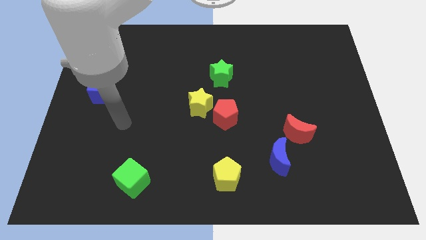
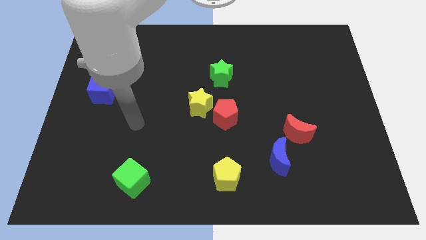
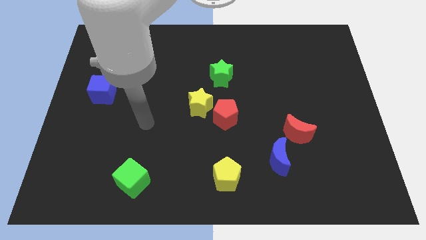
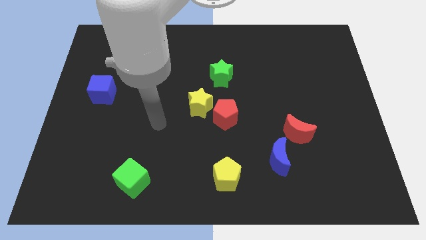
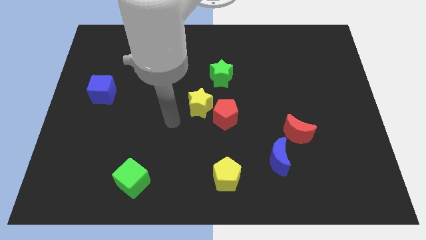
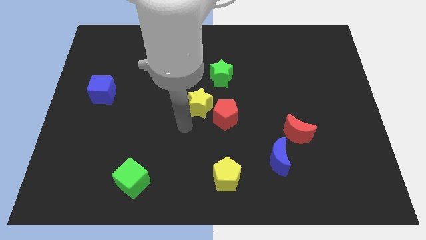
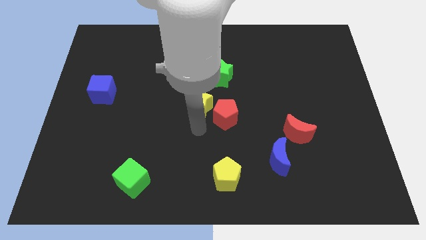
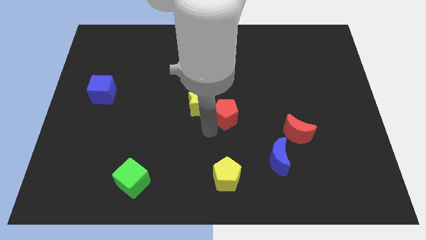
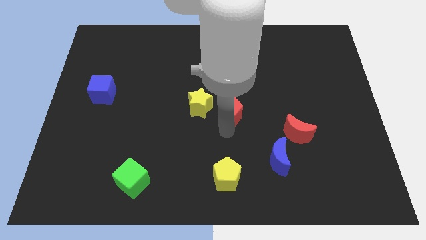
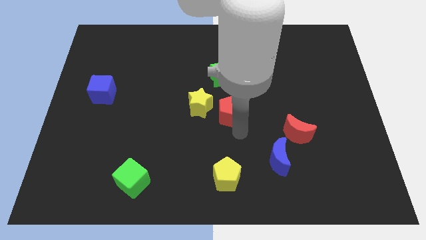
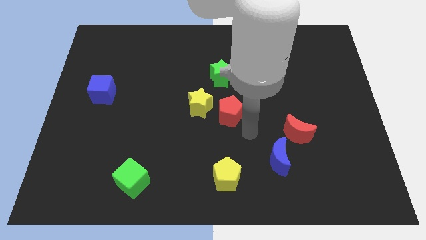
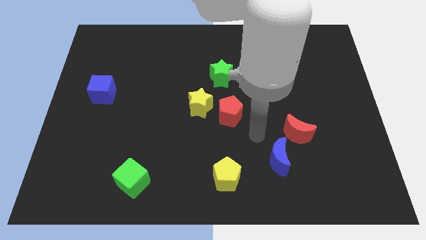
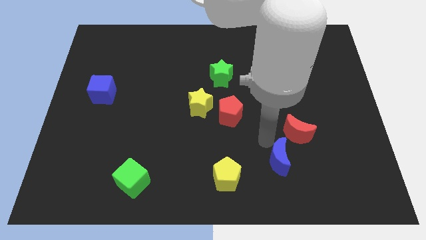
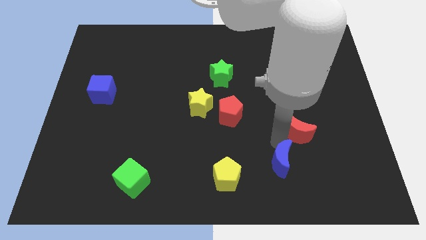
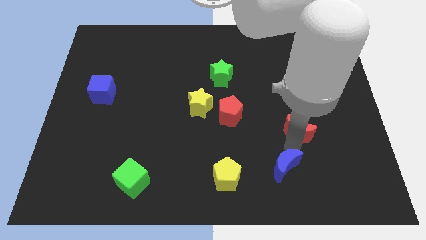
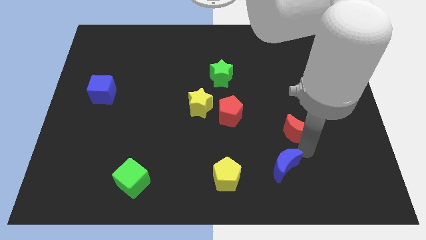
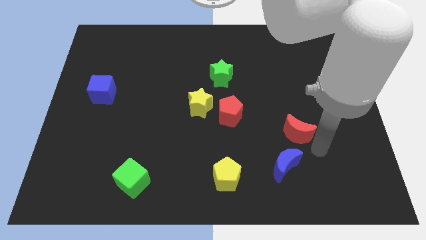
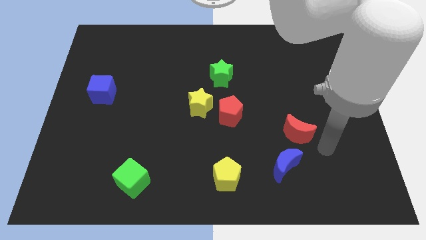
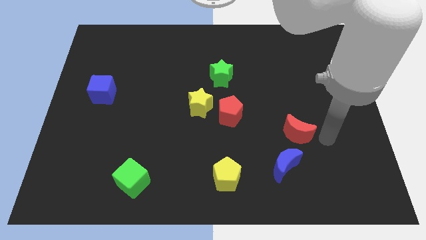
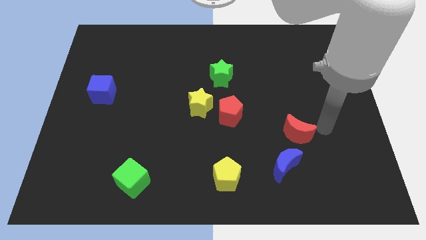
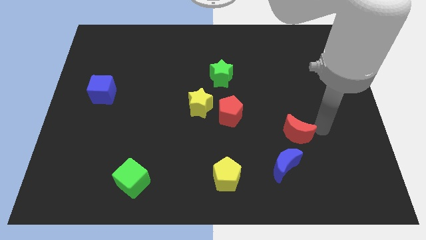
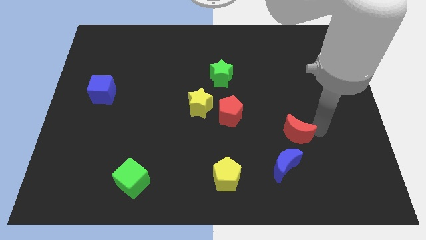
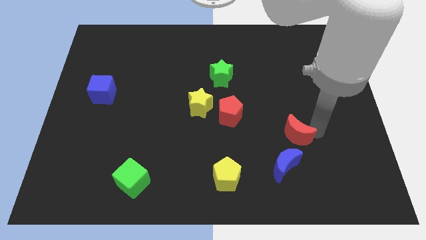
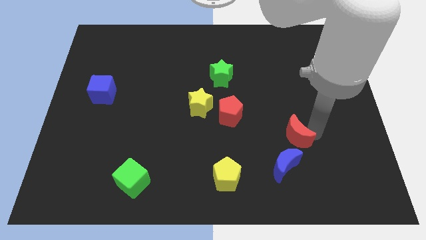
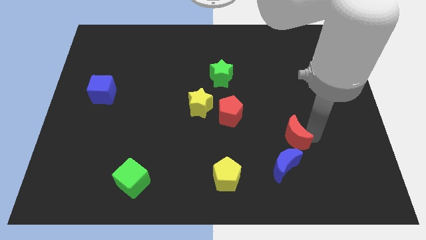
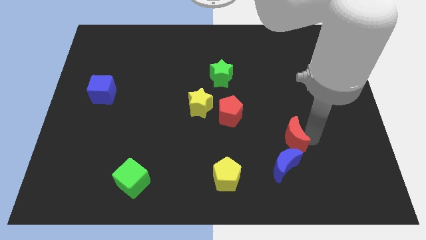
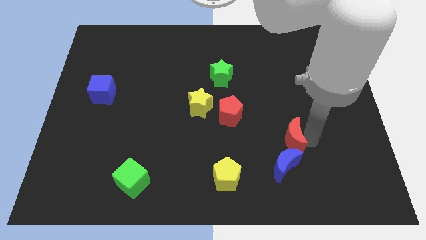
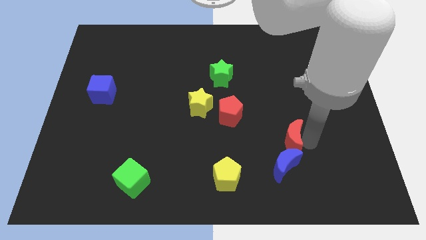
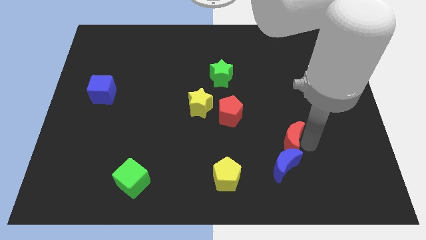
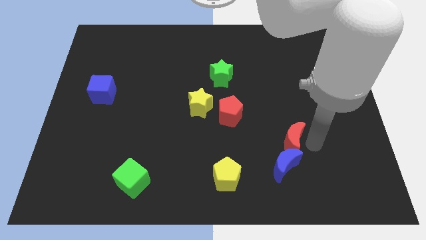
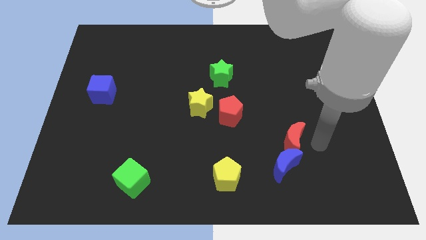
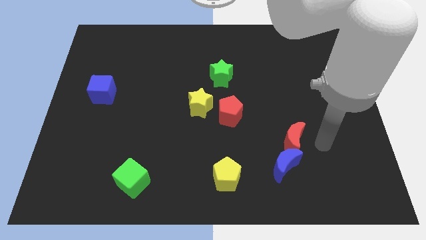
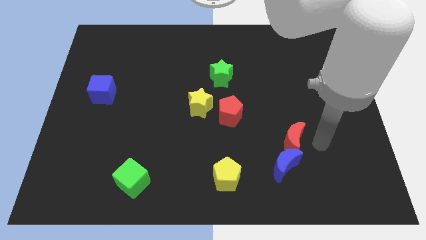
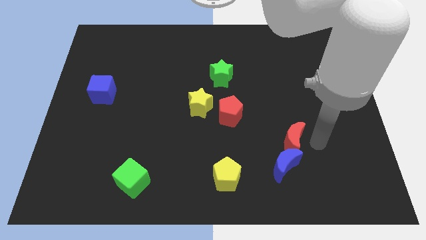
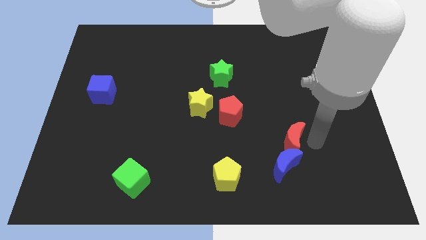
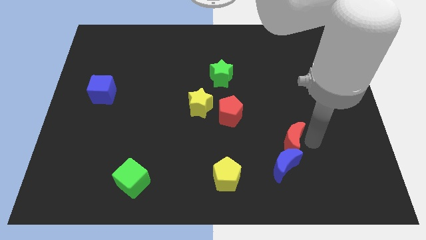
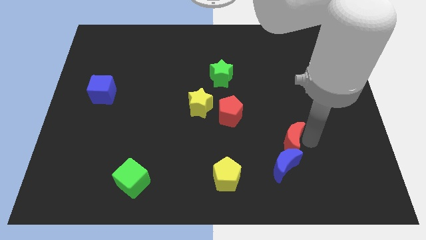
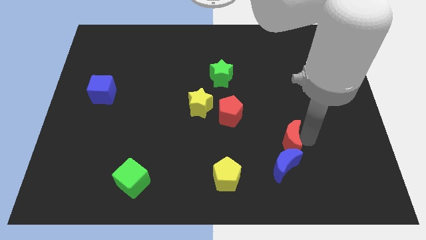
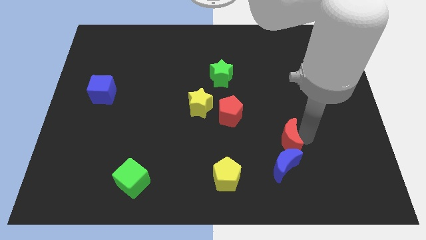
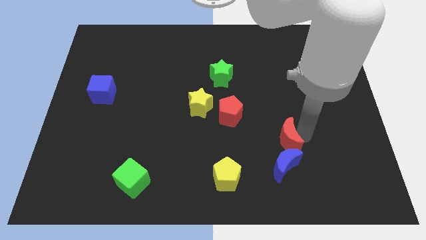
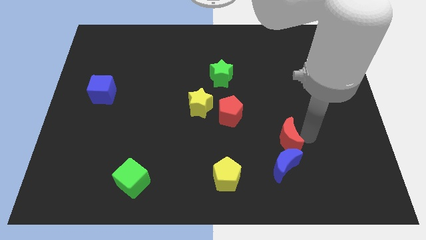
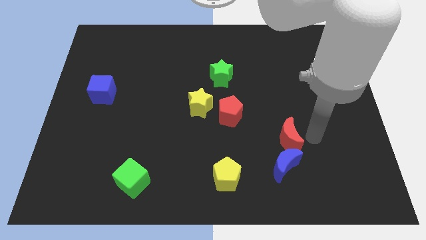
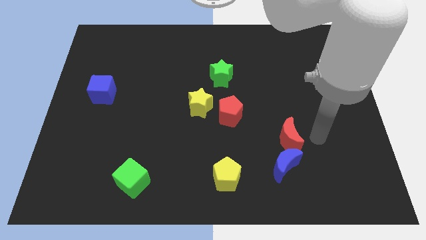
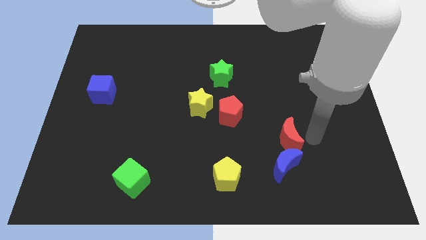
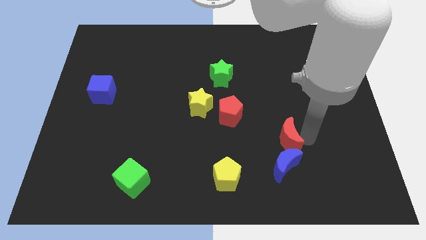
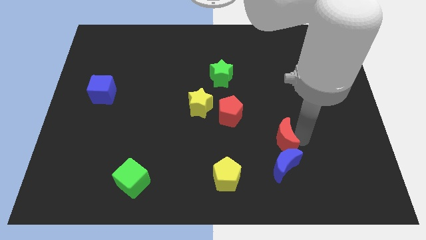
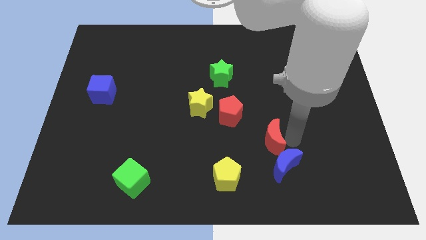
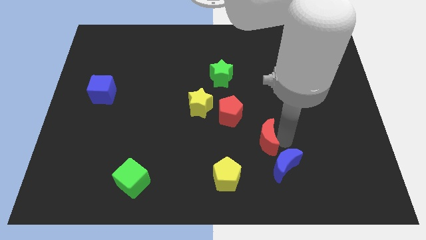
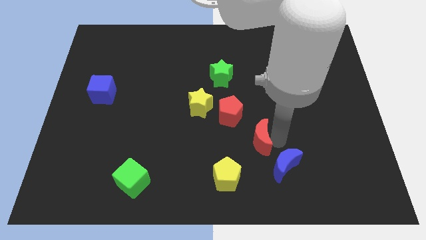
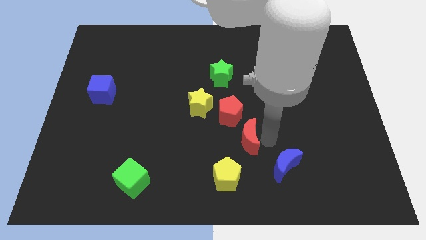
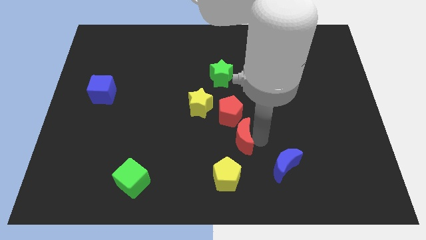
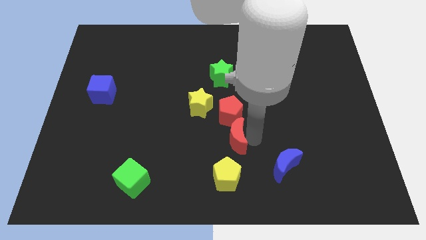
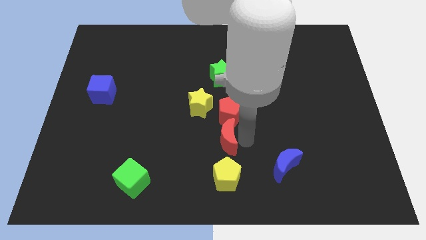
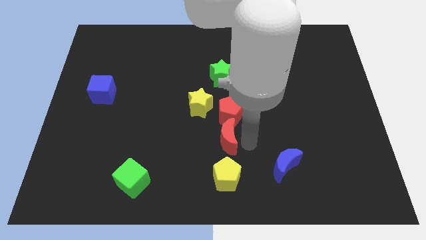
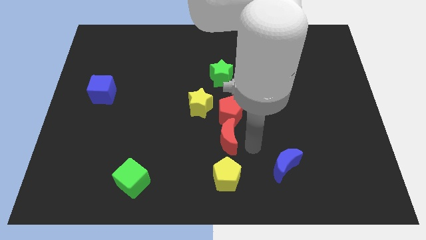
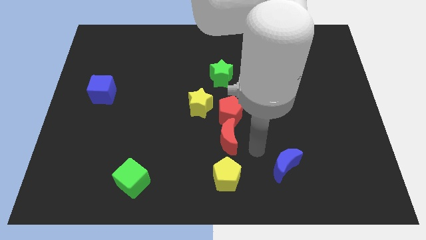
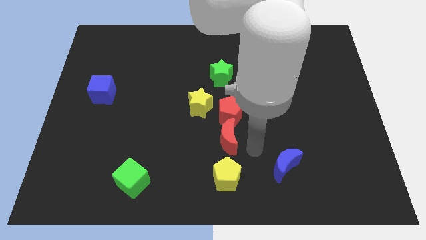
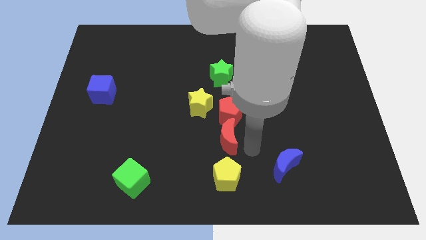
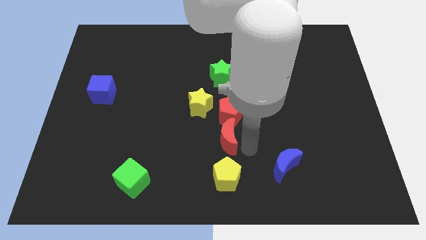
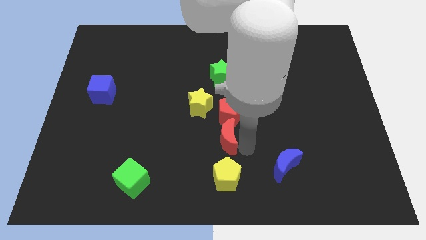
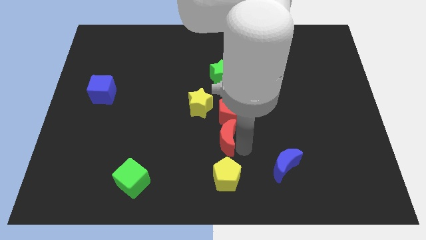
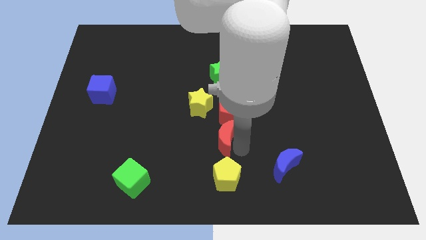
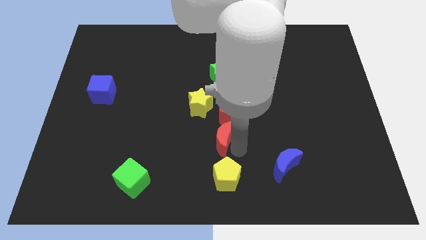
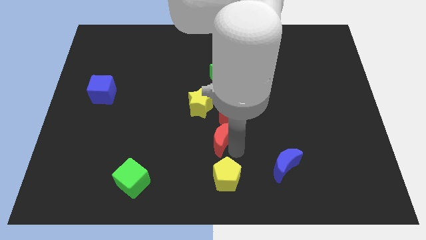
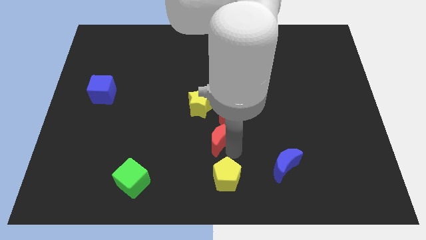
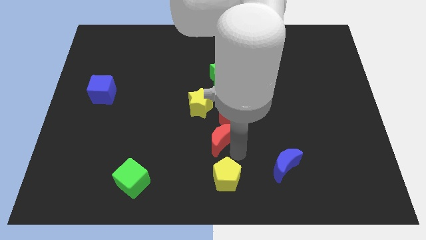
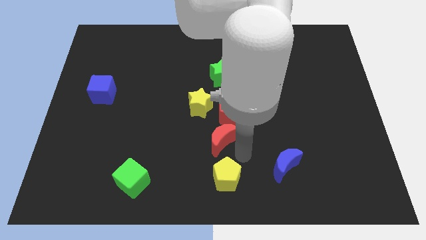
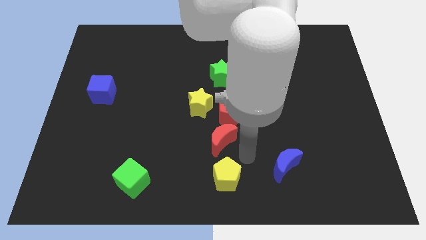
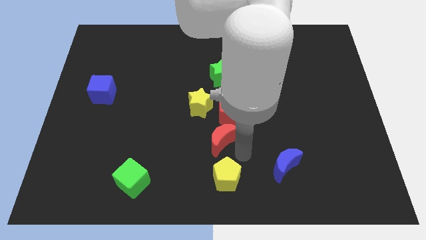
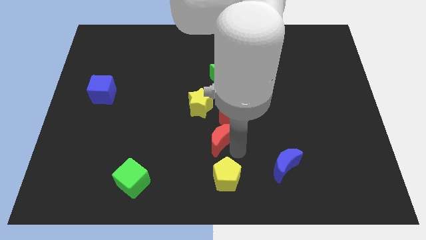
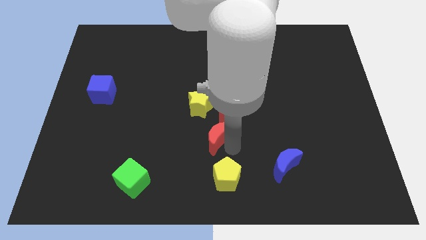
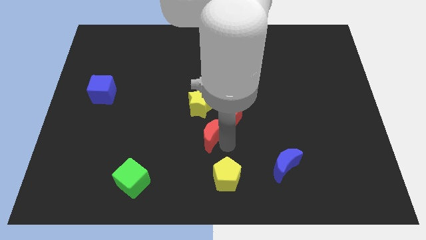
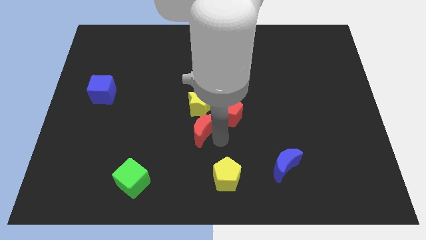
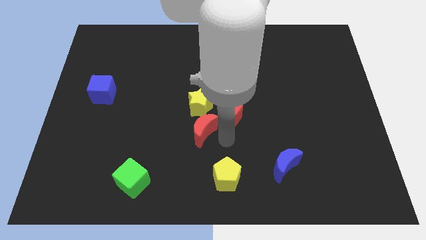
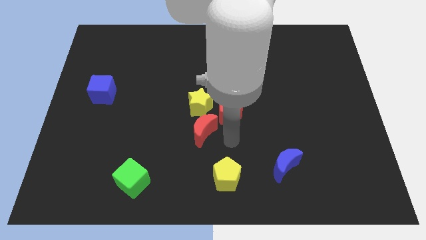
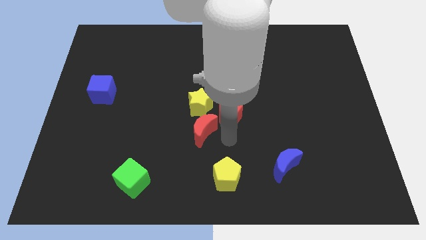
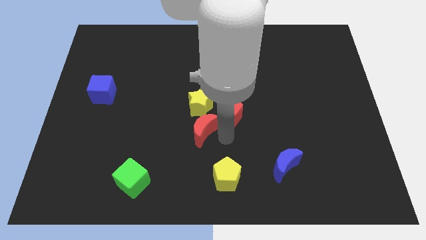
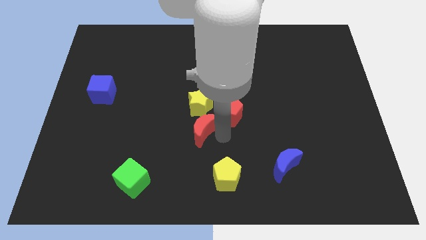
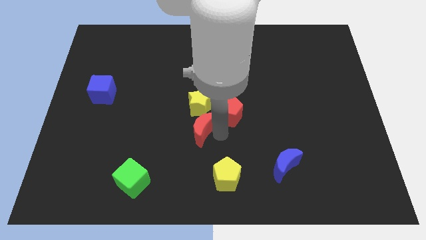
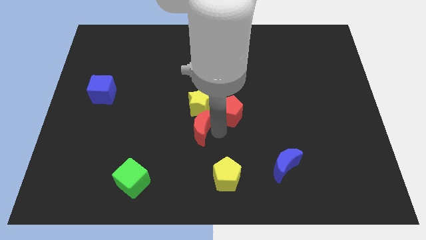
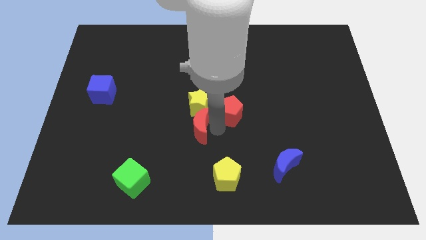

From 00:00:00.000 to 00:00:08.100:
slide the red moon to the bottom left side of the yellow star
